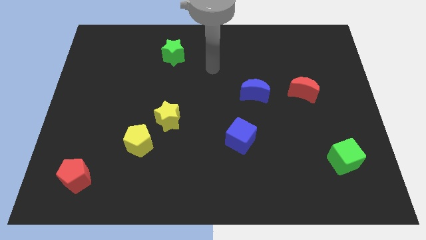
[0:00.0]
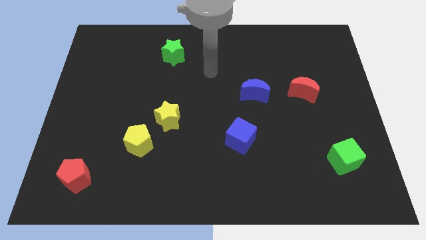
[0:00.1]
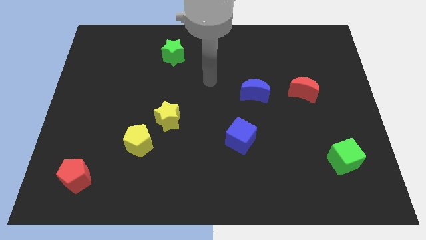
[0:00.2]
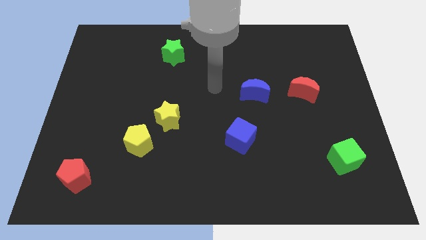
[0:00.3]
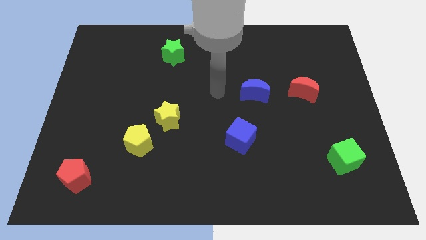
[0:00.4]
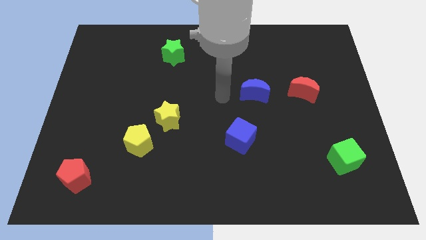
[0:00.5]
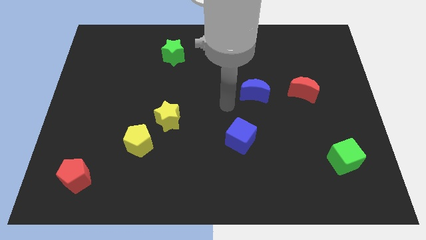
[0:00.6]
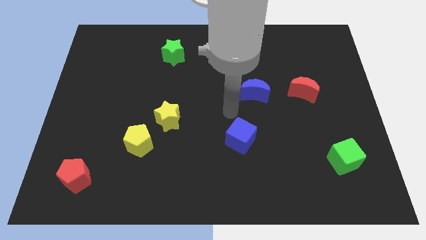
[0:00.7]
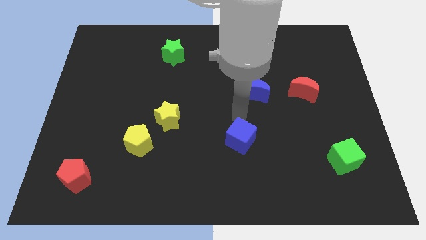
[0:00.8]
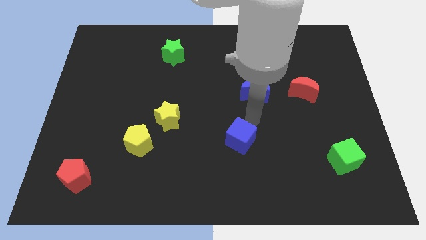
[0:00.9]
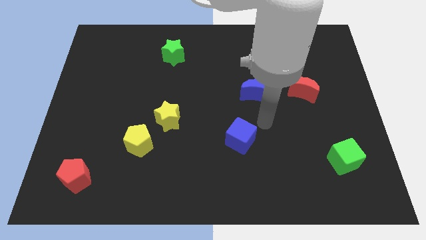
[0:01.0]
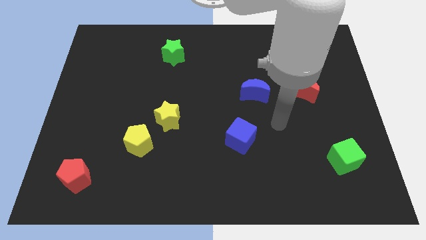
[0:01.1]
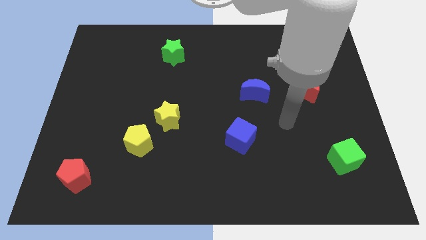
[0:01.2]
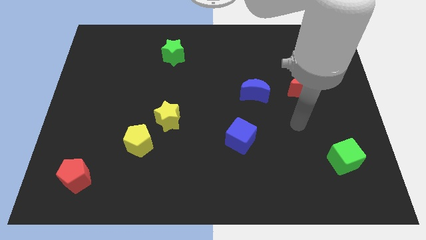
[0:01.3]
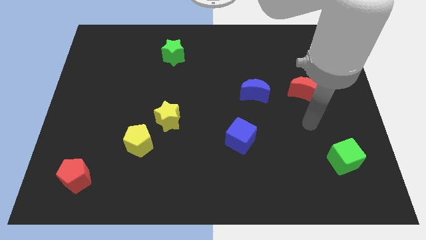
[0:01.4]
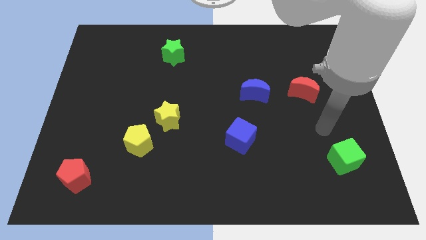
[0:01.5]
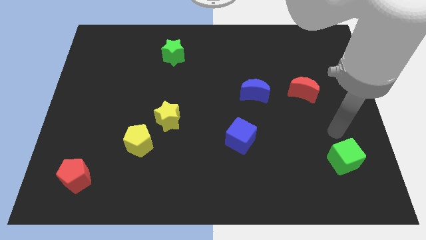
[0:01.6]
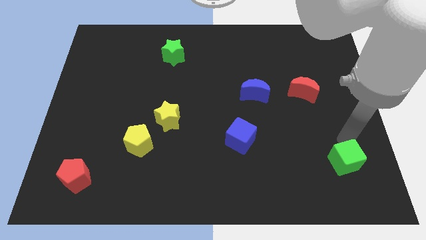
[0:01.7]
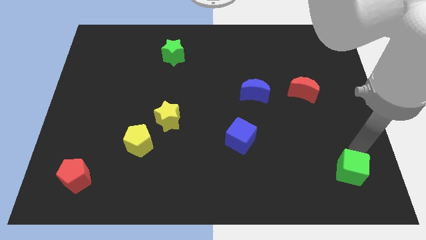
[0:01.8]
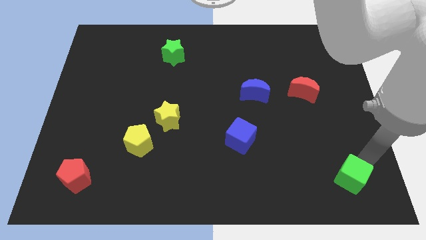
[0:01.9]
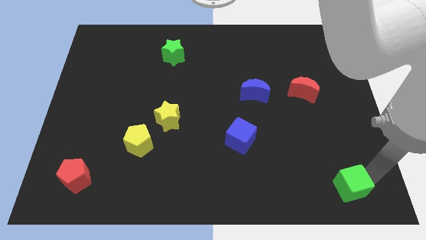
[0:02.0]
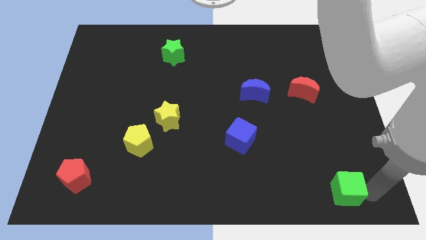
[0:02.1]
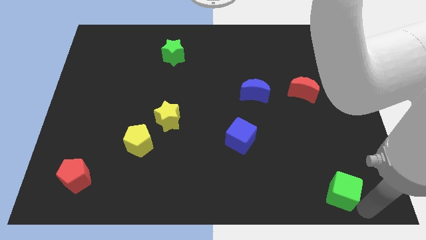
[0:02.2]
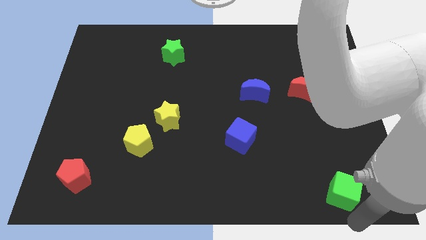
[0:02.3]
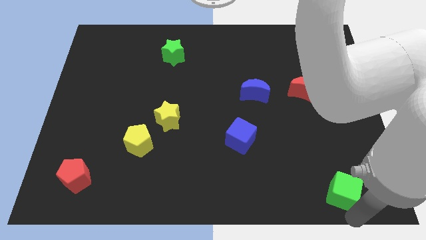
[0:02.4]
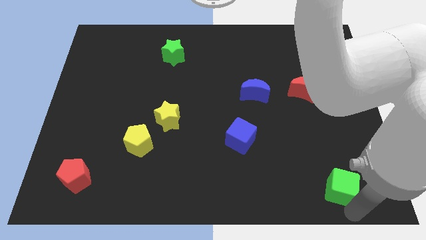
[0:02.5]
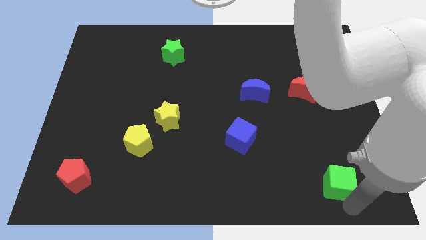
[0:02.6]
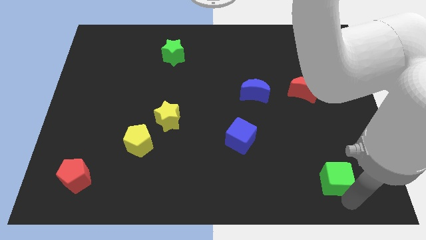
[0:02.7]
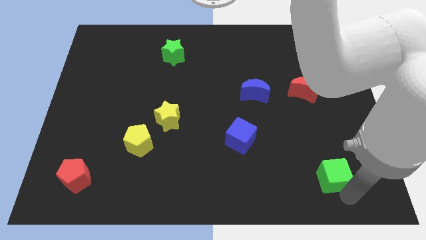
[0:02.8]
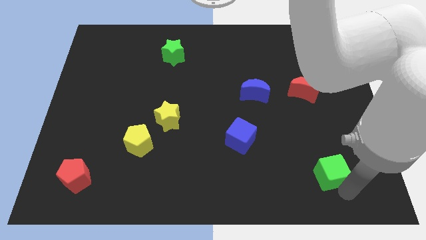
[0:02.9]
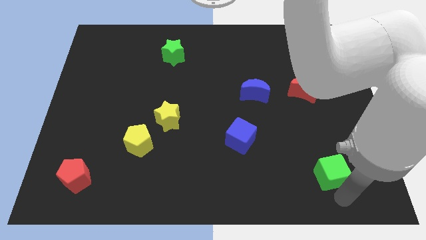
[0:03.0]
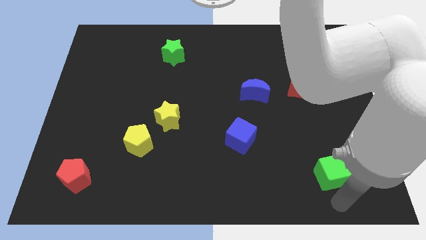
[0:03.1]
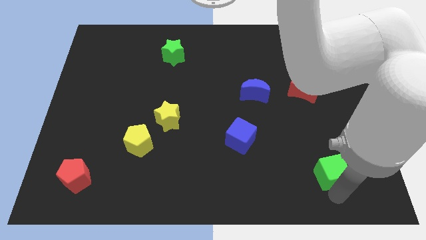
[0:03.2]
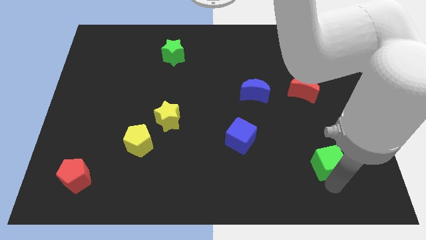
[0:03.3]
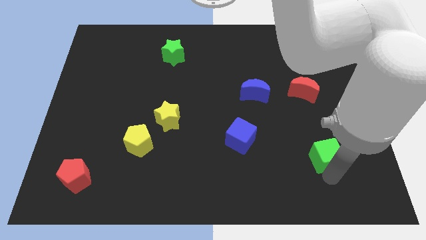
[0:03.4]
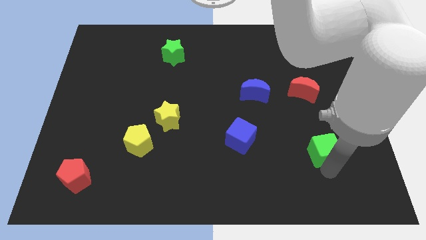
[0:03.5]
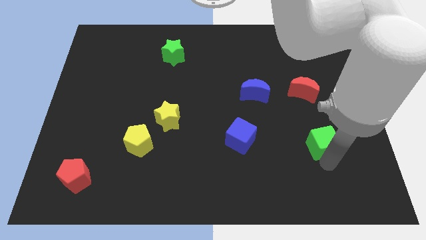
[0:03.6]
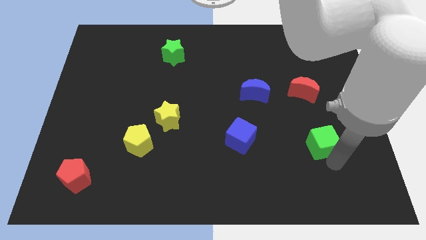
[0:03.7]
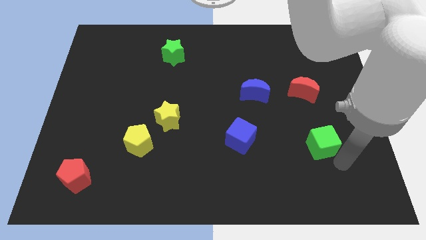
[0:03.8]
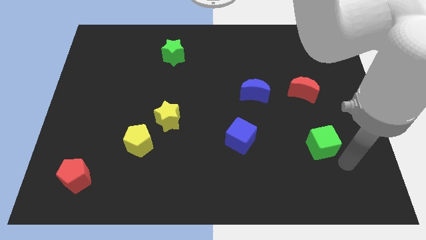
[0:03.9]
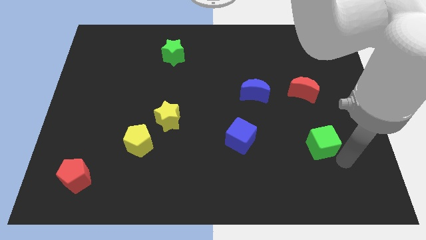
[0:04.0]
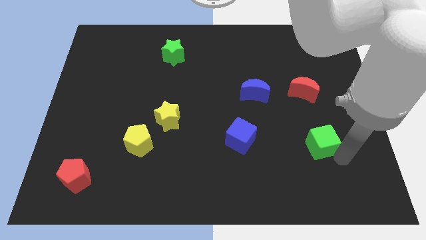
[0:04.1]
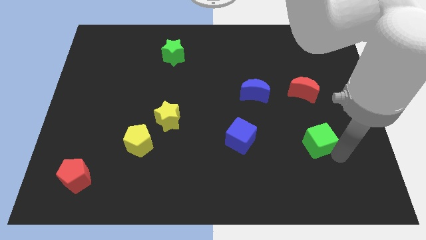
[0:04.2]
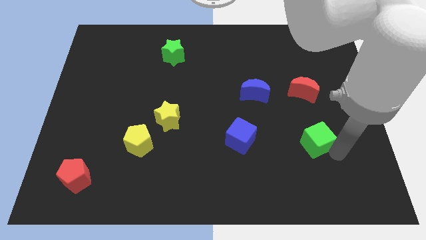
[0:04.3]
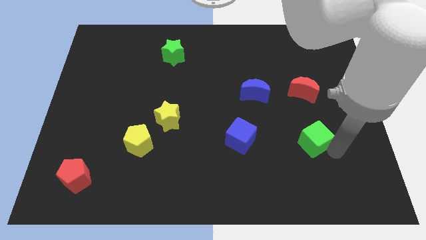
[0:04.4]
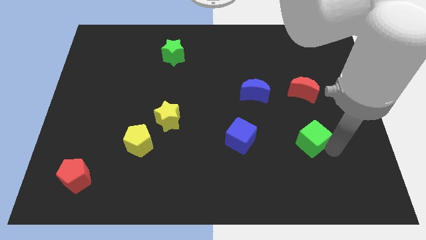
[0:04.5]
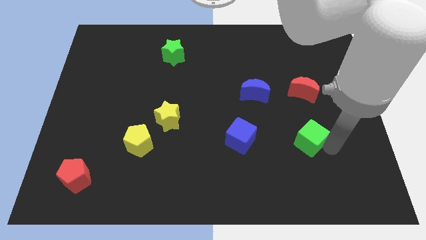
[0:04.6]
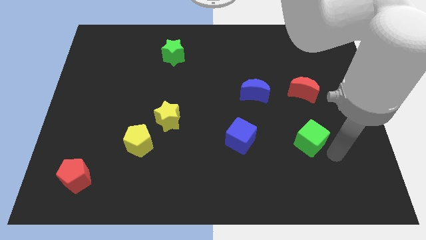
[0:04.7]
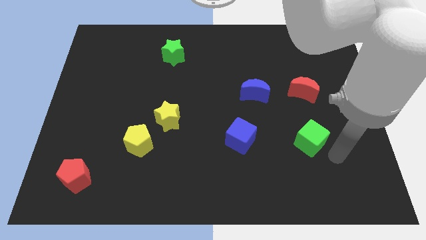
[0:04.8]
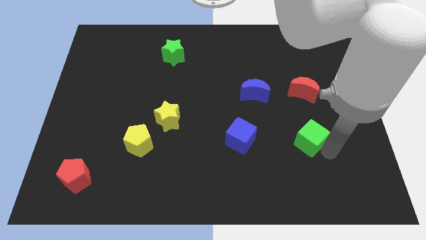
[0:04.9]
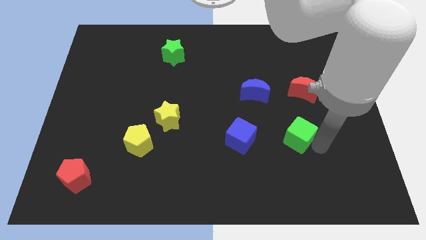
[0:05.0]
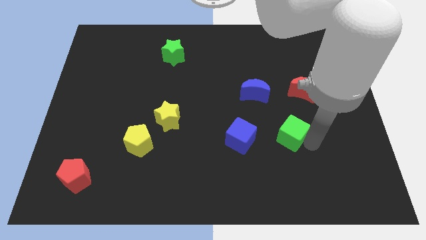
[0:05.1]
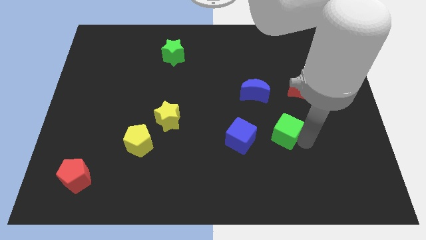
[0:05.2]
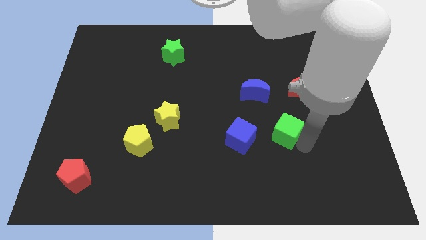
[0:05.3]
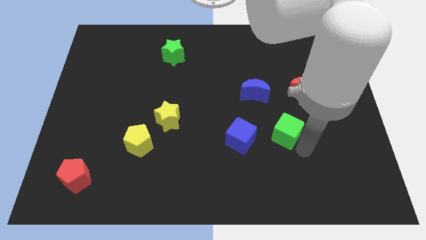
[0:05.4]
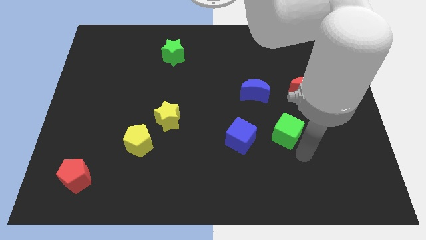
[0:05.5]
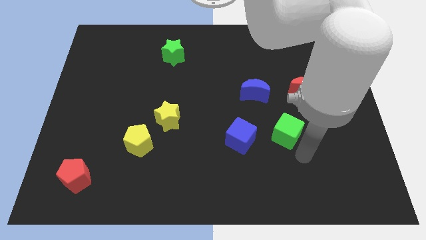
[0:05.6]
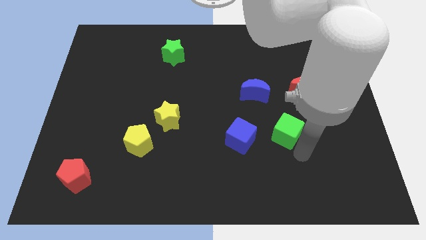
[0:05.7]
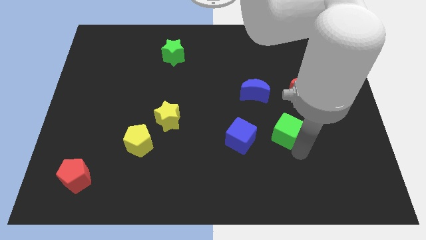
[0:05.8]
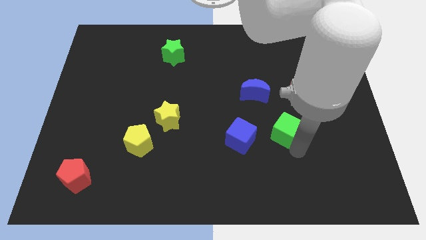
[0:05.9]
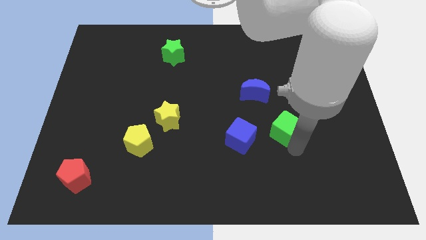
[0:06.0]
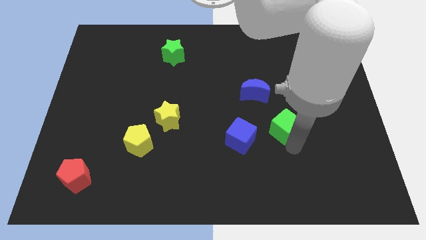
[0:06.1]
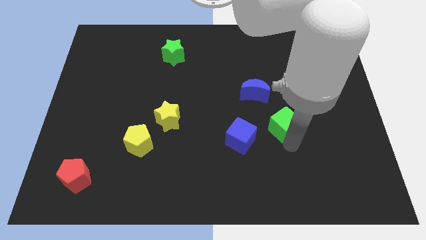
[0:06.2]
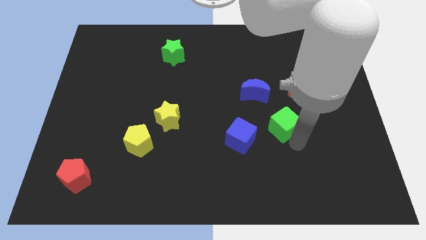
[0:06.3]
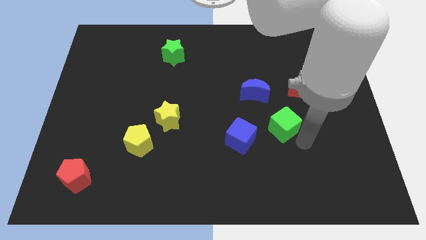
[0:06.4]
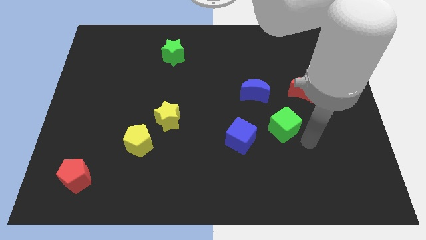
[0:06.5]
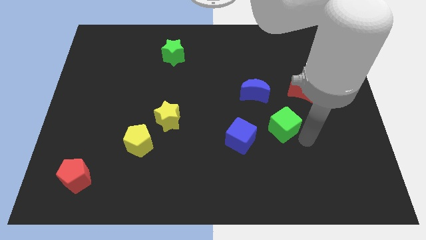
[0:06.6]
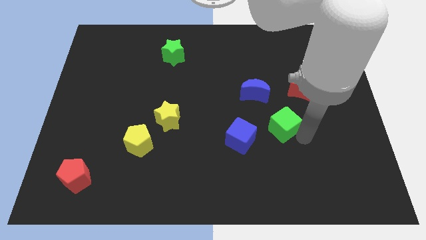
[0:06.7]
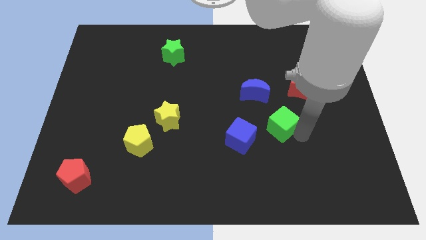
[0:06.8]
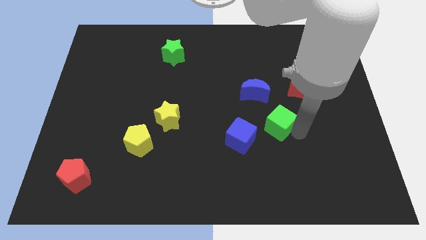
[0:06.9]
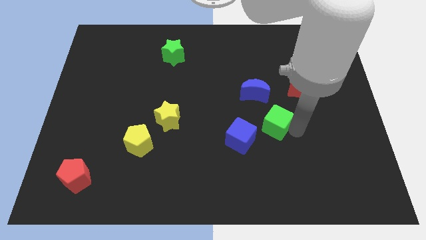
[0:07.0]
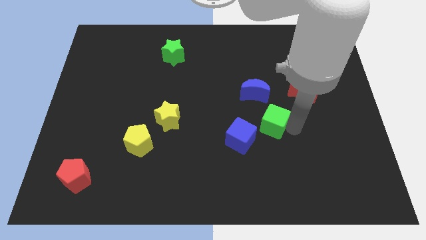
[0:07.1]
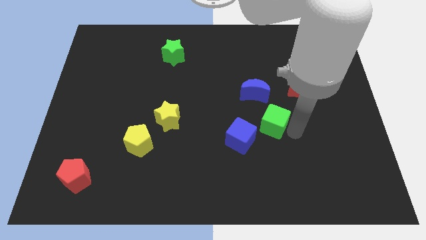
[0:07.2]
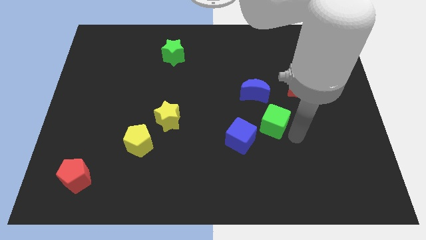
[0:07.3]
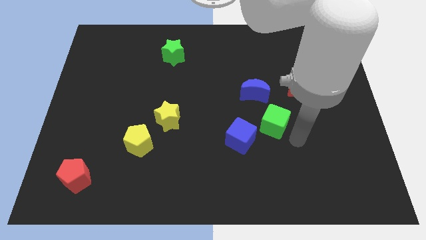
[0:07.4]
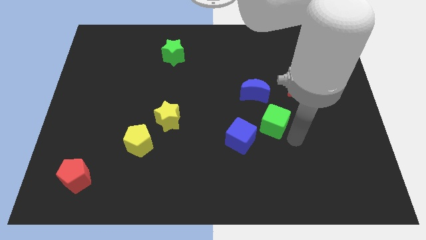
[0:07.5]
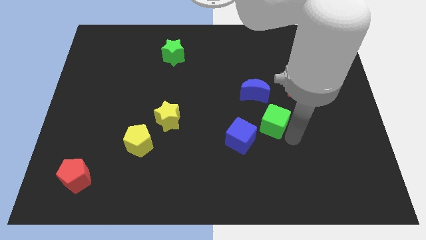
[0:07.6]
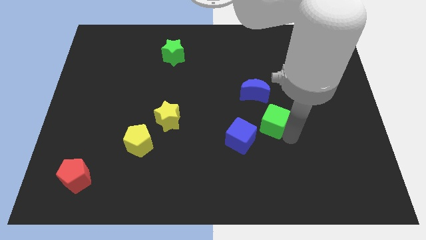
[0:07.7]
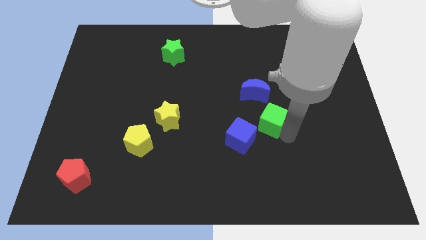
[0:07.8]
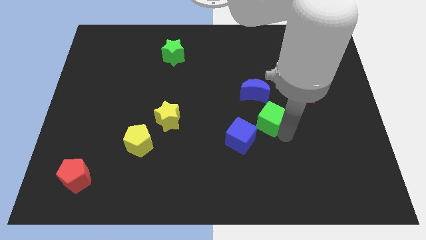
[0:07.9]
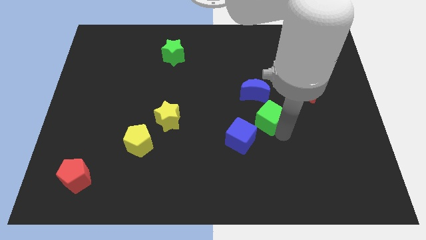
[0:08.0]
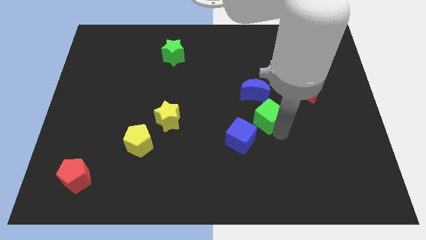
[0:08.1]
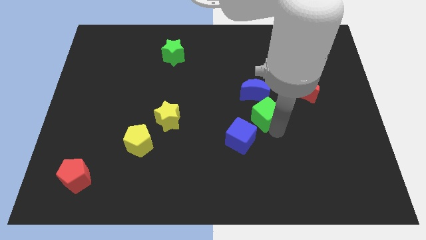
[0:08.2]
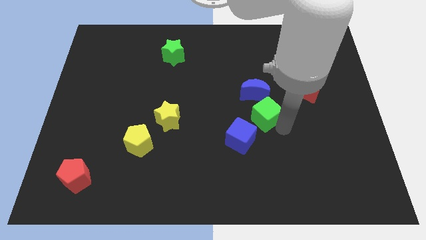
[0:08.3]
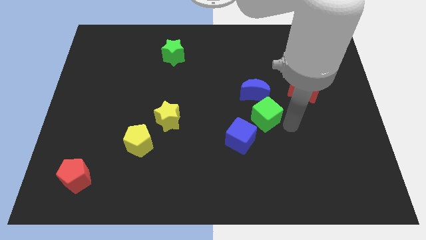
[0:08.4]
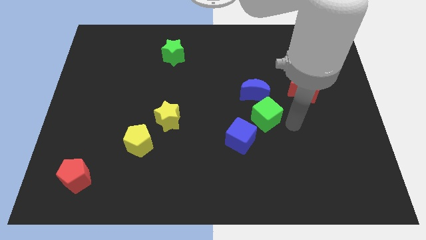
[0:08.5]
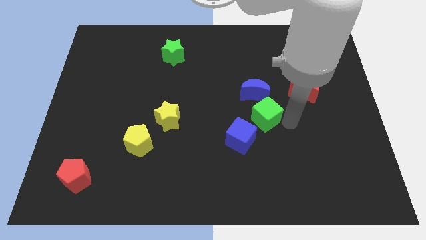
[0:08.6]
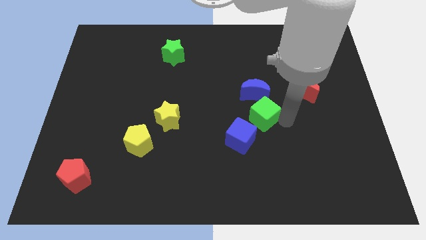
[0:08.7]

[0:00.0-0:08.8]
push the green cube to the center of the board
